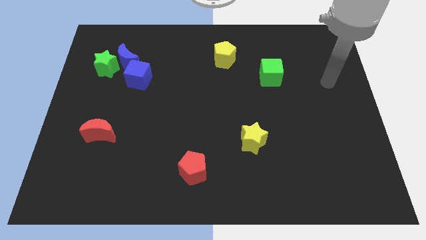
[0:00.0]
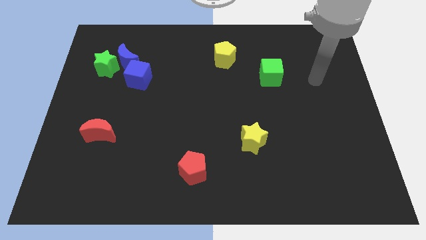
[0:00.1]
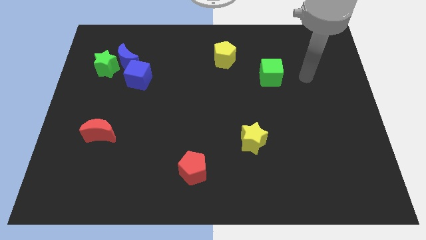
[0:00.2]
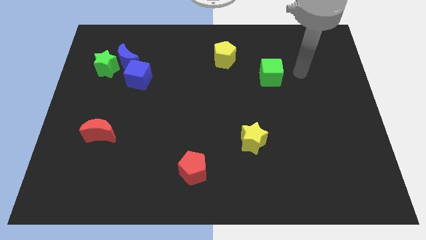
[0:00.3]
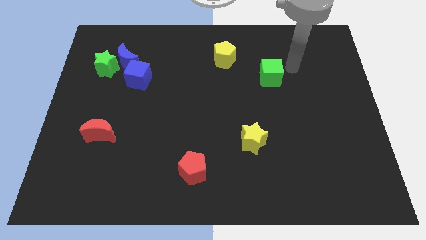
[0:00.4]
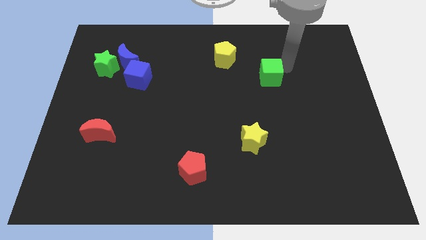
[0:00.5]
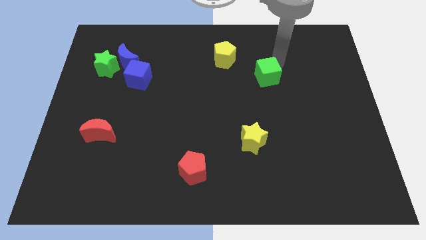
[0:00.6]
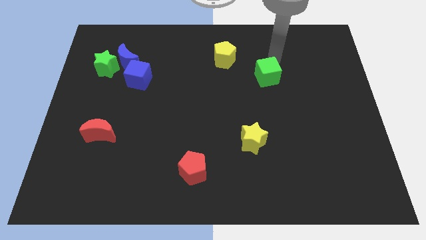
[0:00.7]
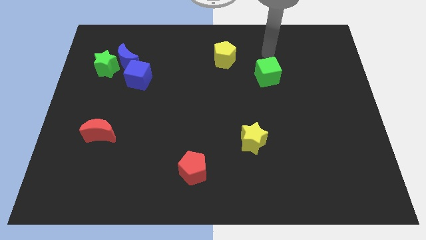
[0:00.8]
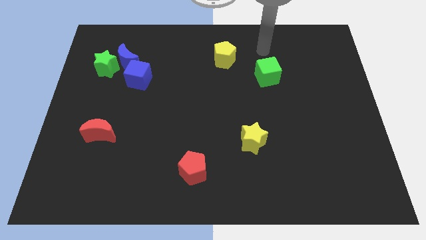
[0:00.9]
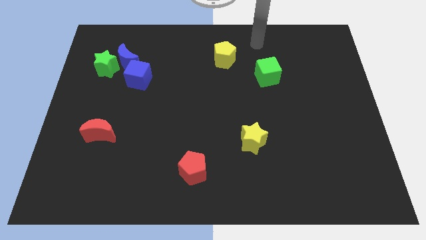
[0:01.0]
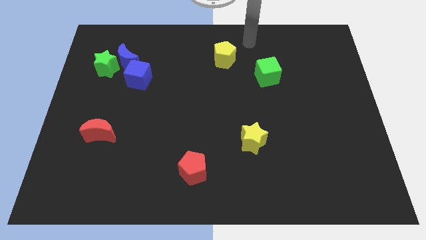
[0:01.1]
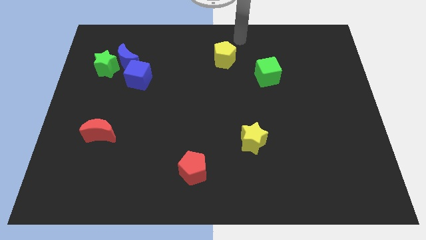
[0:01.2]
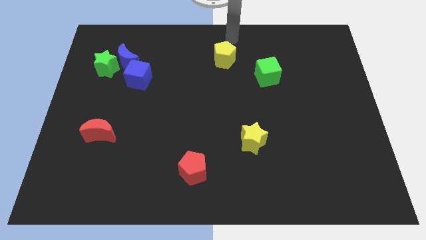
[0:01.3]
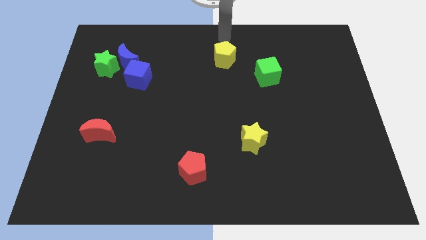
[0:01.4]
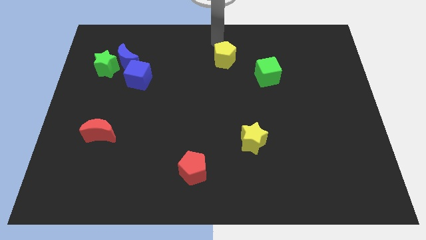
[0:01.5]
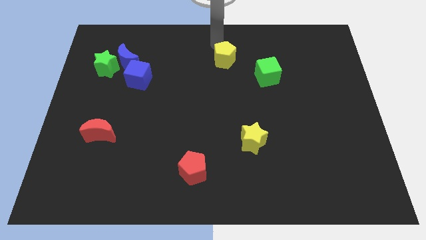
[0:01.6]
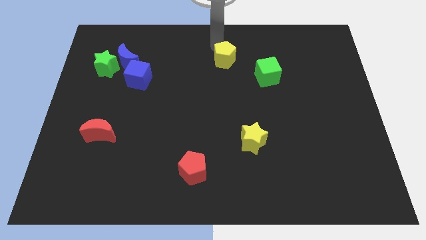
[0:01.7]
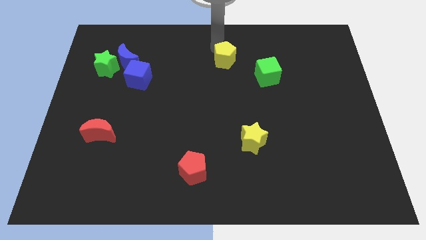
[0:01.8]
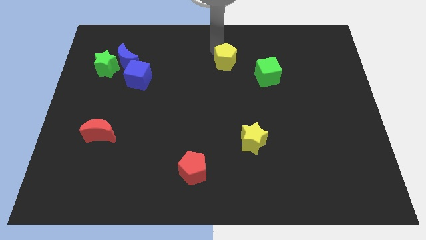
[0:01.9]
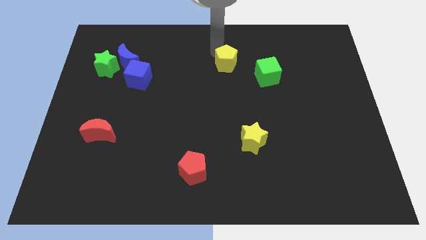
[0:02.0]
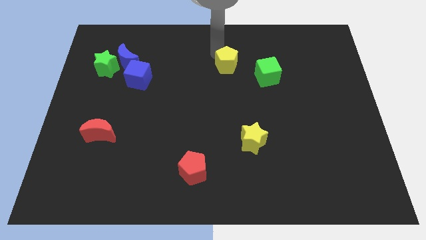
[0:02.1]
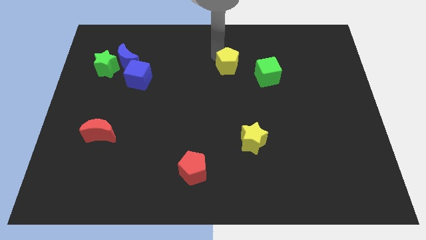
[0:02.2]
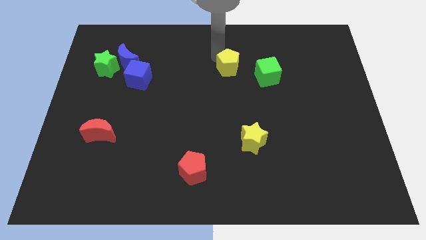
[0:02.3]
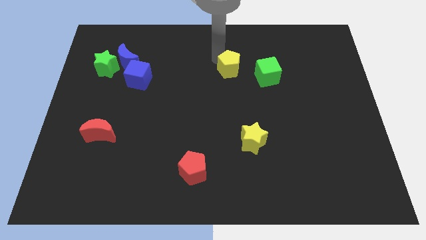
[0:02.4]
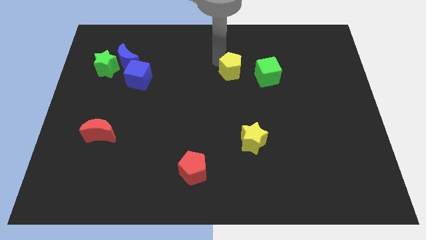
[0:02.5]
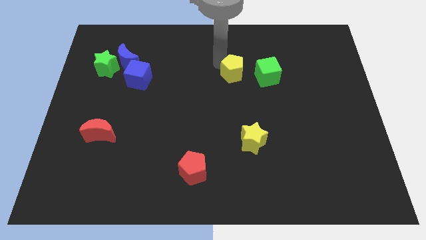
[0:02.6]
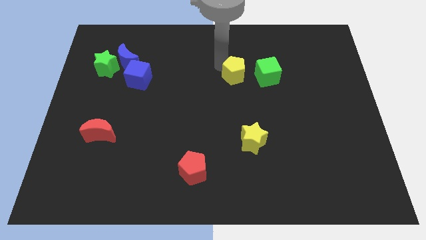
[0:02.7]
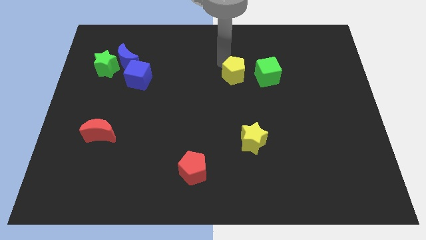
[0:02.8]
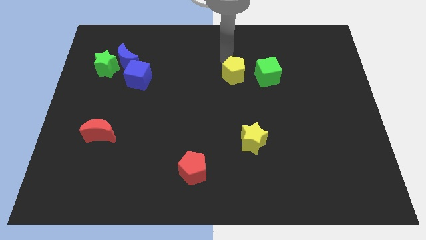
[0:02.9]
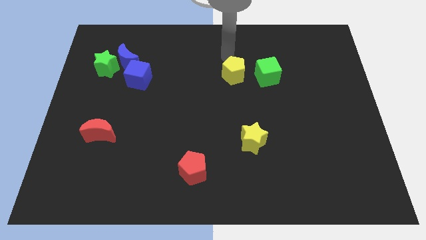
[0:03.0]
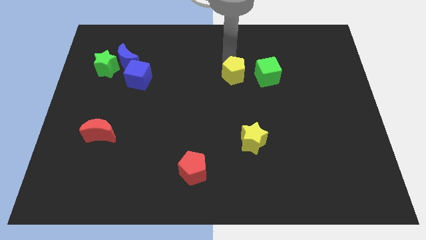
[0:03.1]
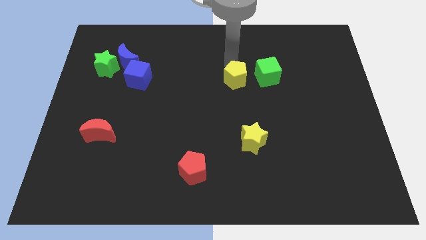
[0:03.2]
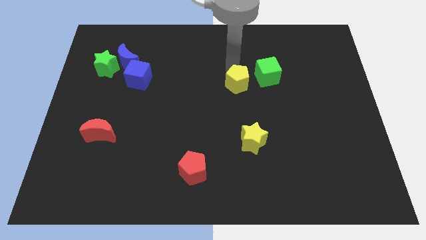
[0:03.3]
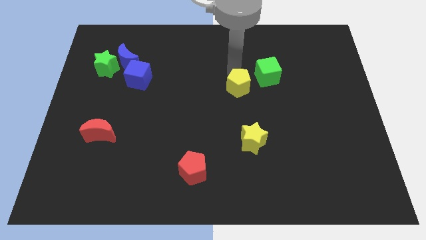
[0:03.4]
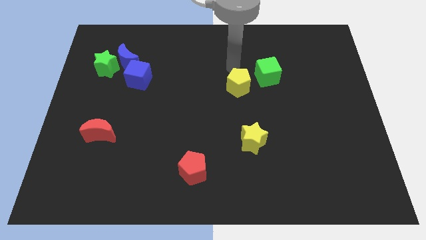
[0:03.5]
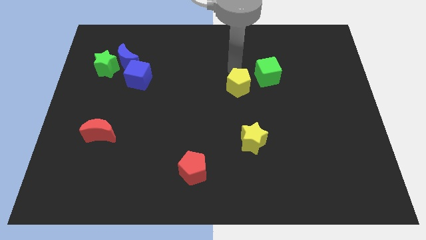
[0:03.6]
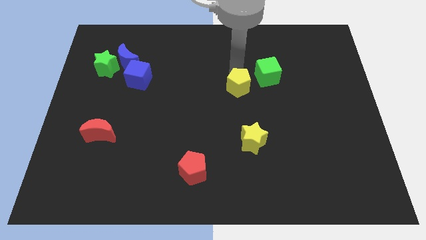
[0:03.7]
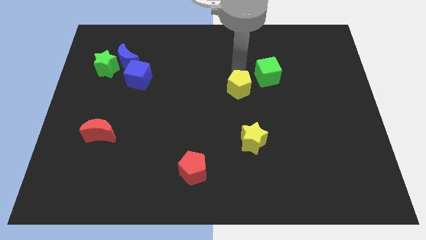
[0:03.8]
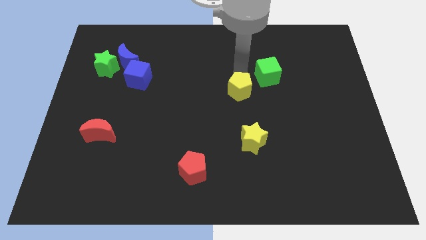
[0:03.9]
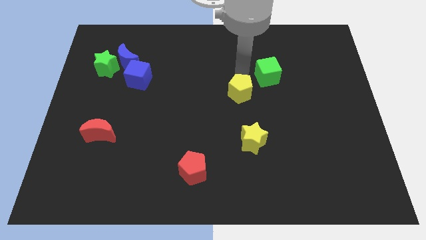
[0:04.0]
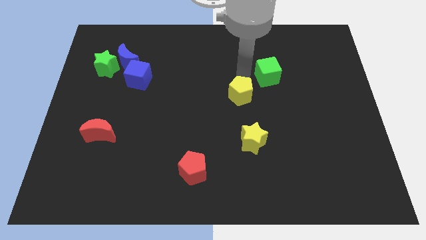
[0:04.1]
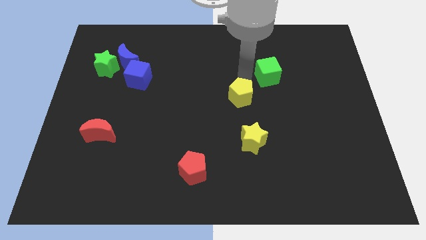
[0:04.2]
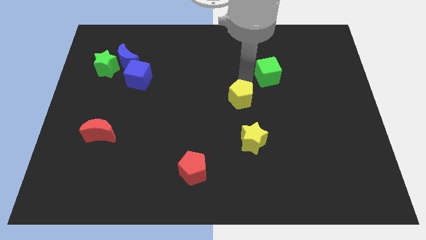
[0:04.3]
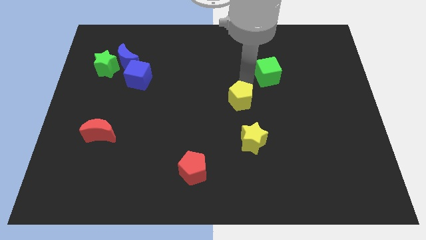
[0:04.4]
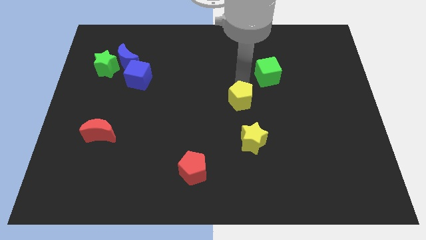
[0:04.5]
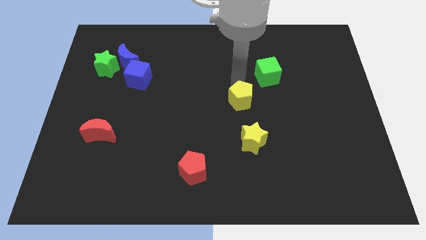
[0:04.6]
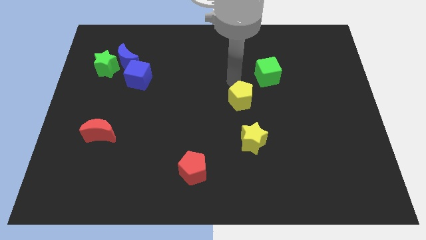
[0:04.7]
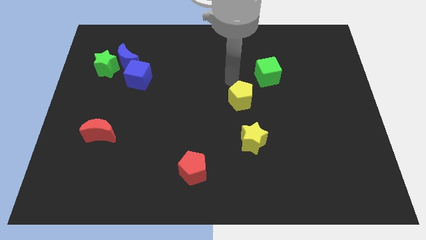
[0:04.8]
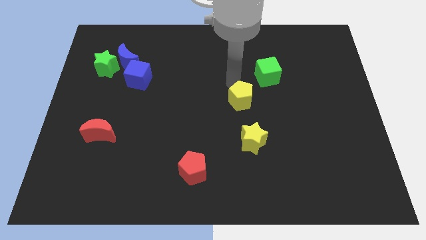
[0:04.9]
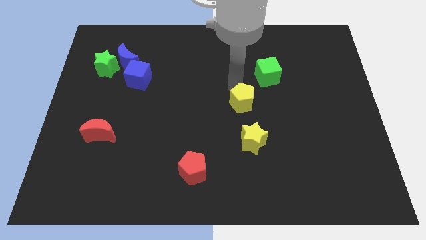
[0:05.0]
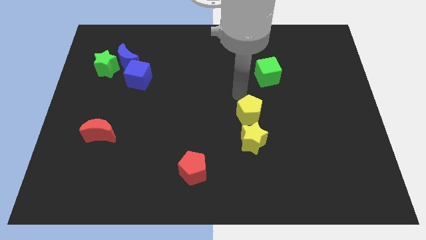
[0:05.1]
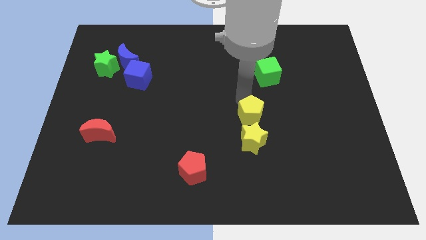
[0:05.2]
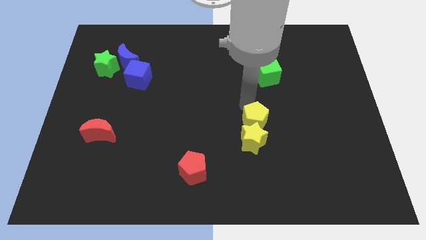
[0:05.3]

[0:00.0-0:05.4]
slide the yellow pentagon close to the yellow star

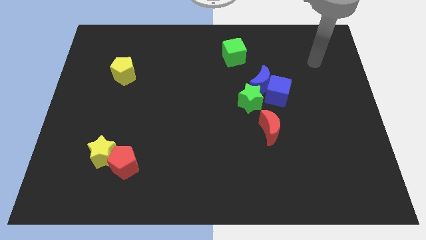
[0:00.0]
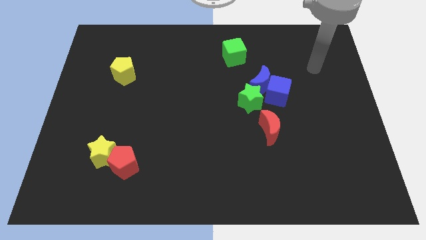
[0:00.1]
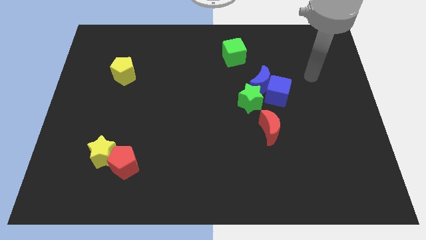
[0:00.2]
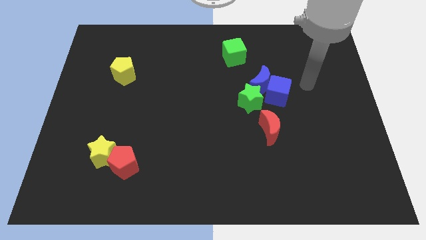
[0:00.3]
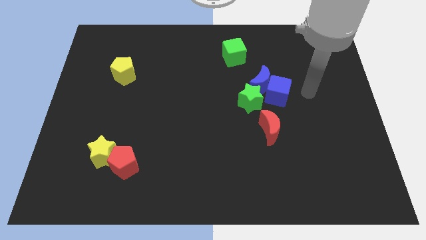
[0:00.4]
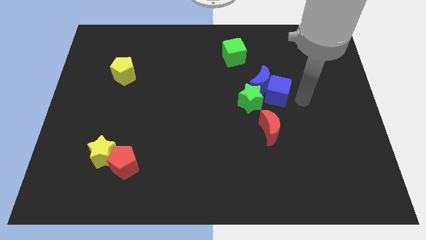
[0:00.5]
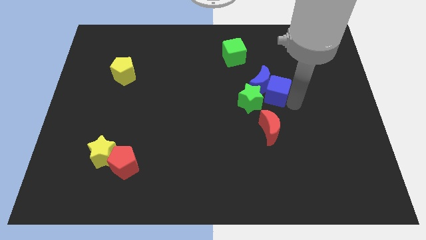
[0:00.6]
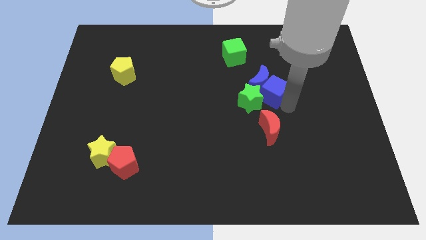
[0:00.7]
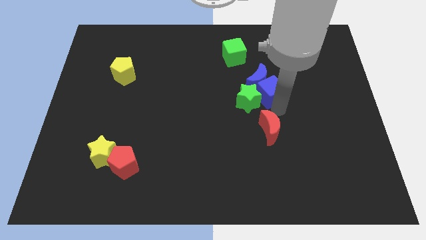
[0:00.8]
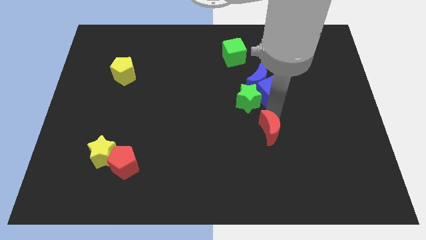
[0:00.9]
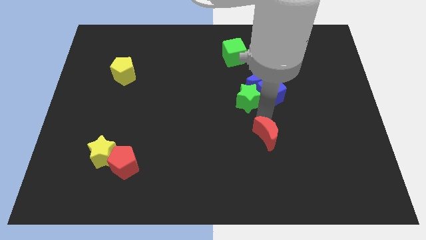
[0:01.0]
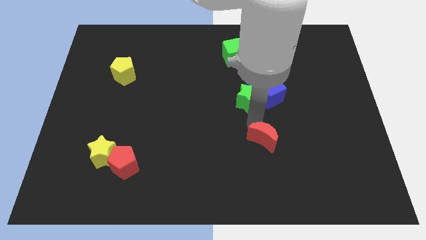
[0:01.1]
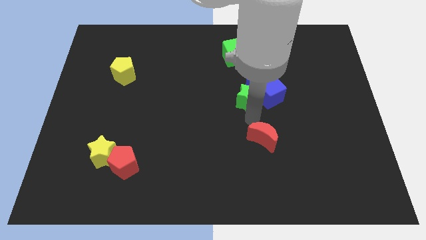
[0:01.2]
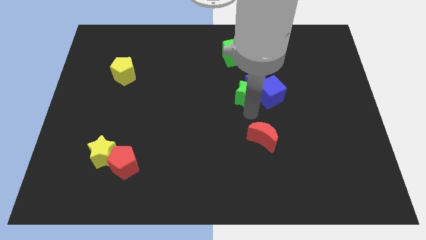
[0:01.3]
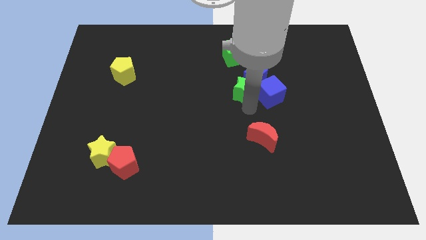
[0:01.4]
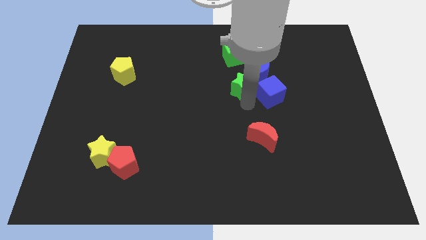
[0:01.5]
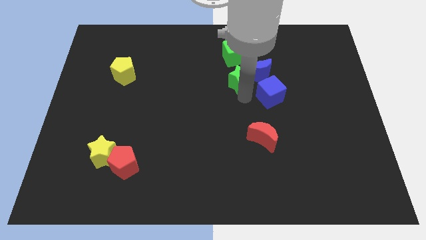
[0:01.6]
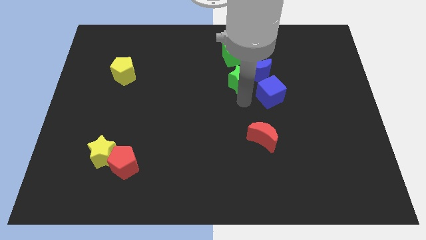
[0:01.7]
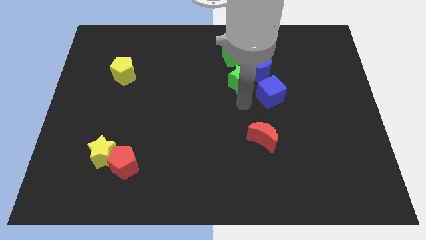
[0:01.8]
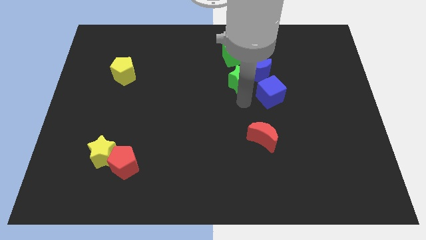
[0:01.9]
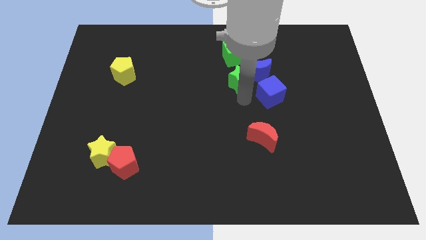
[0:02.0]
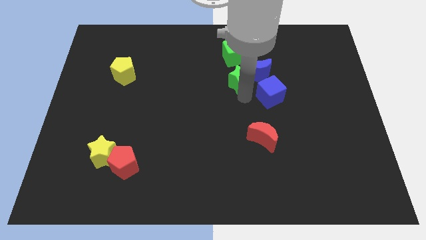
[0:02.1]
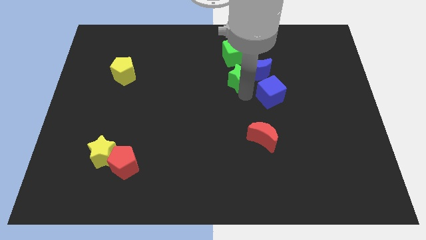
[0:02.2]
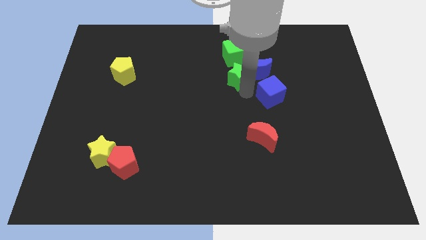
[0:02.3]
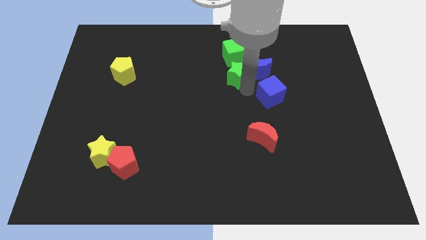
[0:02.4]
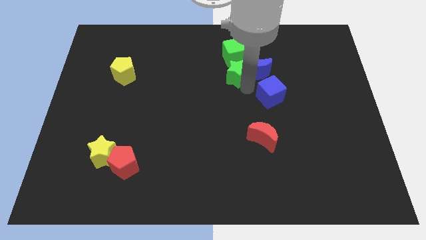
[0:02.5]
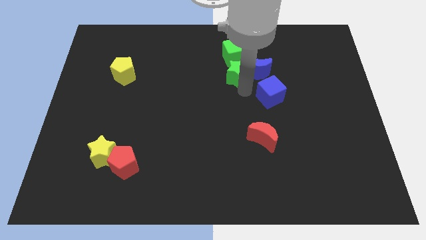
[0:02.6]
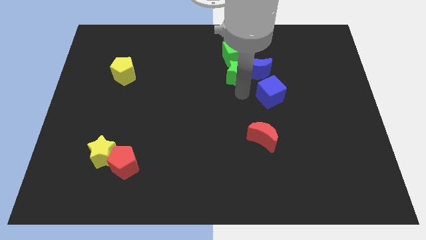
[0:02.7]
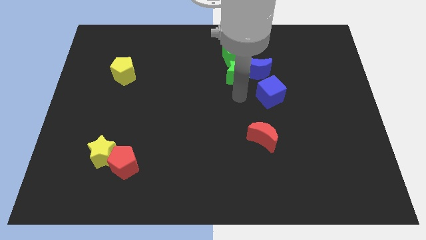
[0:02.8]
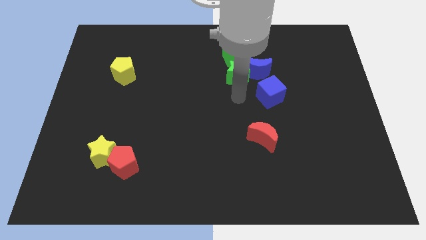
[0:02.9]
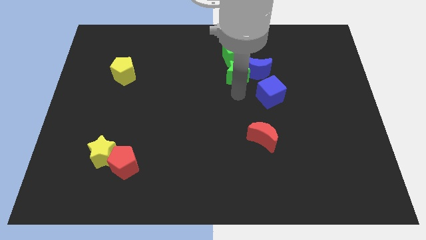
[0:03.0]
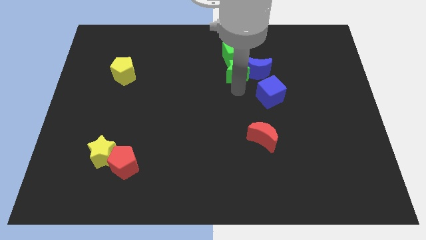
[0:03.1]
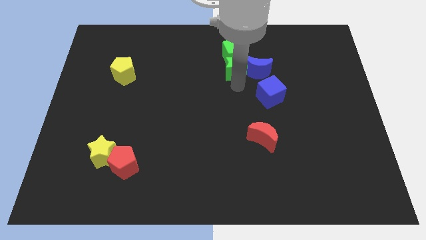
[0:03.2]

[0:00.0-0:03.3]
move the green star next to the green cube
